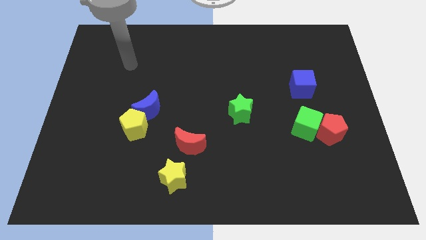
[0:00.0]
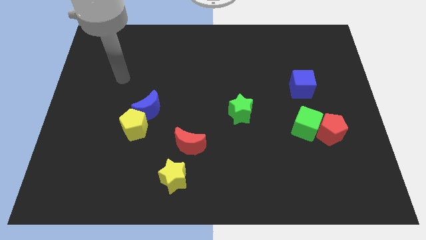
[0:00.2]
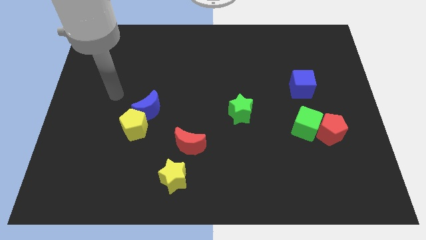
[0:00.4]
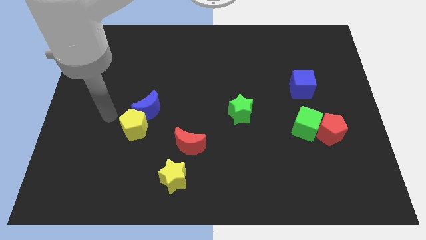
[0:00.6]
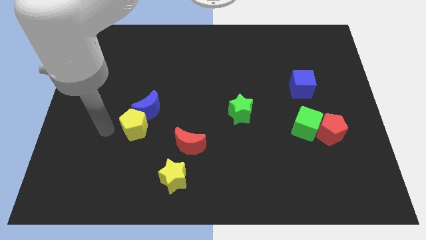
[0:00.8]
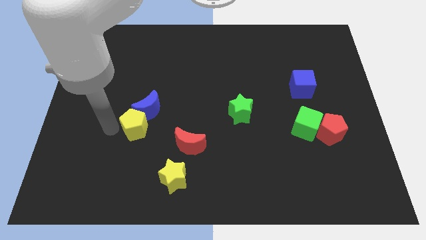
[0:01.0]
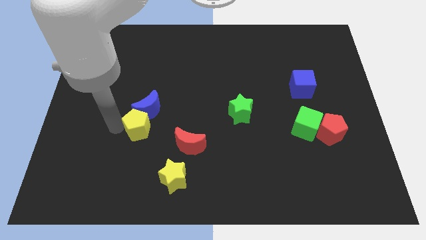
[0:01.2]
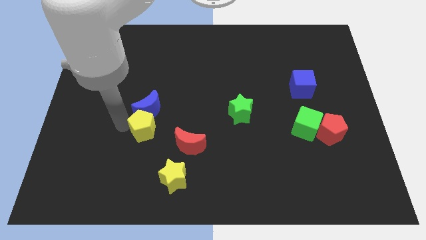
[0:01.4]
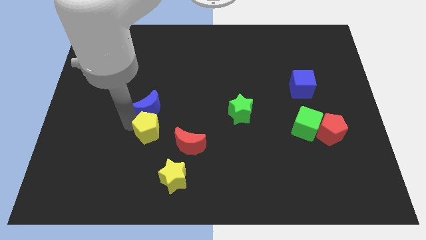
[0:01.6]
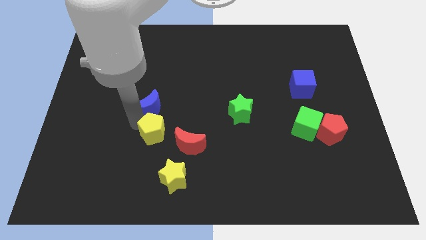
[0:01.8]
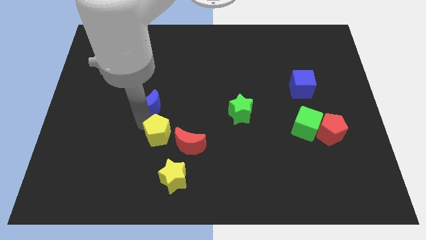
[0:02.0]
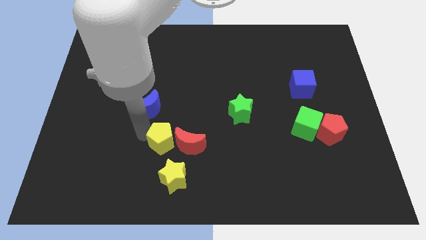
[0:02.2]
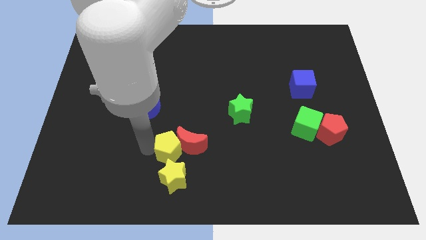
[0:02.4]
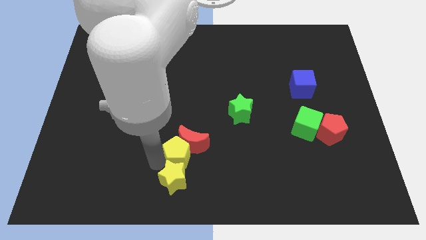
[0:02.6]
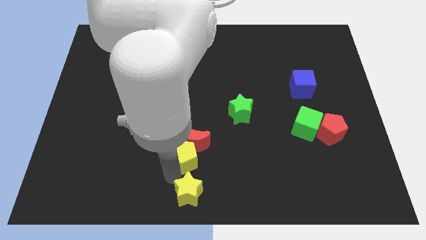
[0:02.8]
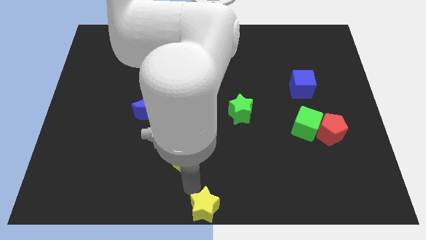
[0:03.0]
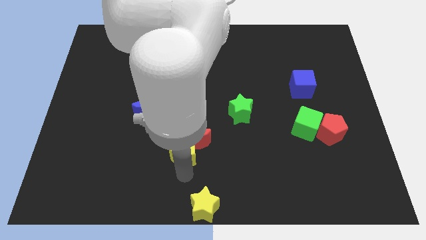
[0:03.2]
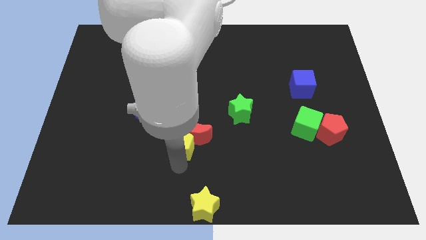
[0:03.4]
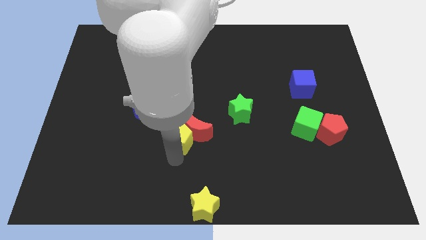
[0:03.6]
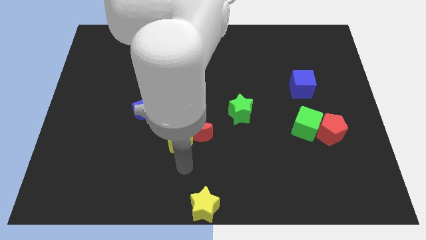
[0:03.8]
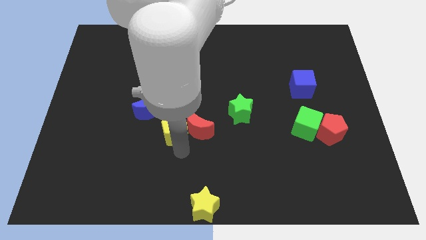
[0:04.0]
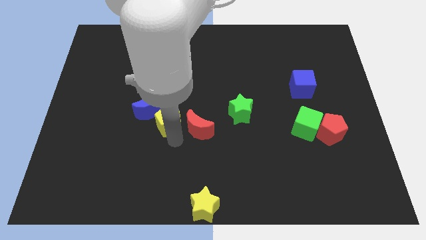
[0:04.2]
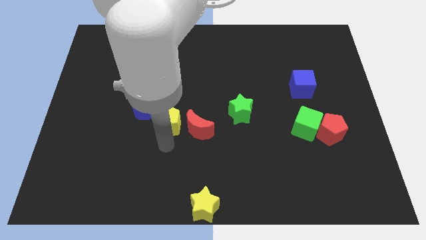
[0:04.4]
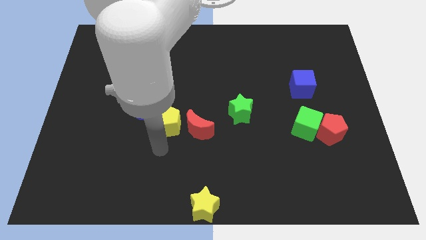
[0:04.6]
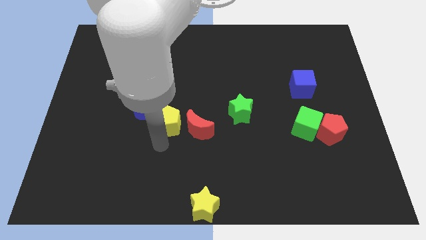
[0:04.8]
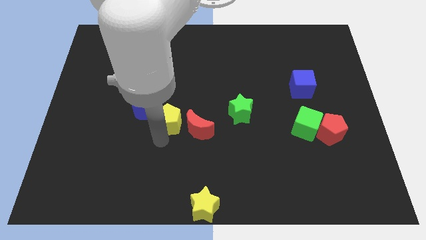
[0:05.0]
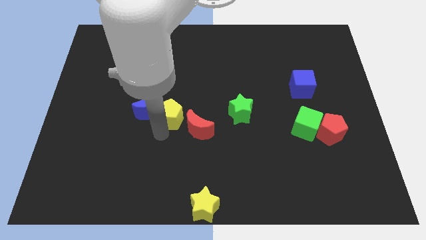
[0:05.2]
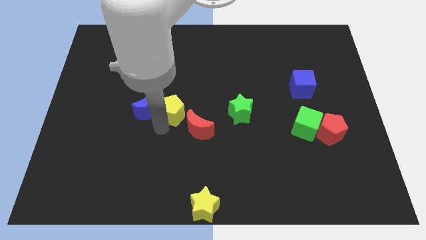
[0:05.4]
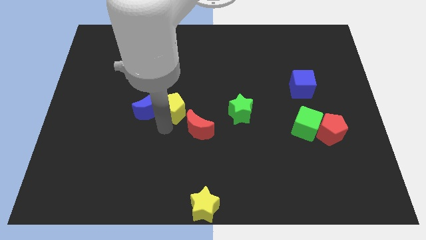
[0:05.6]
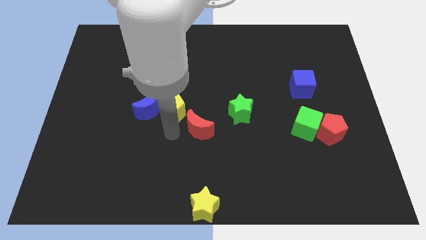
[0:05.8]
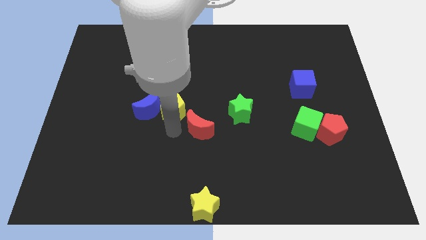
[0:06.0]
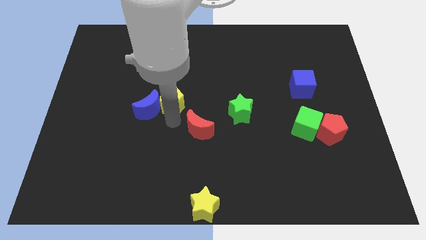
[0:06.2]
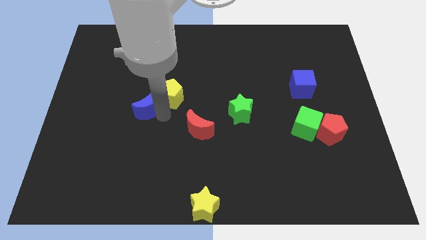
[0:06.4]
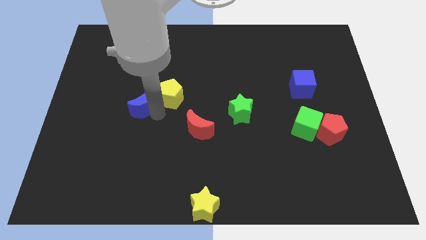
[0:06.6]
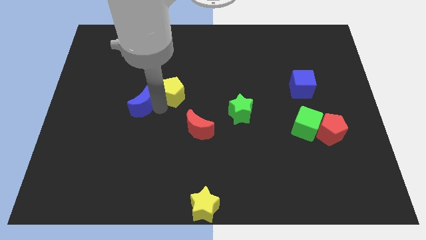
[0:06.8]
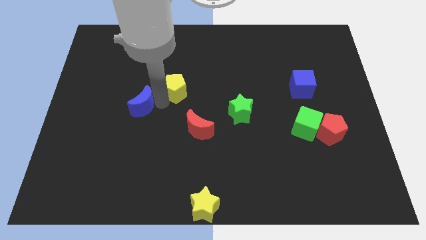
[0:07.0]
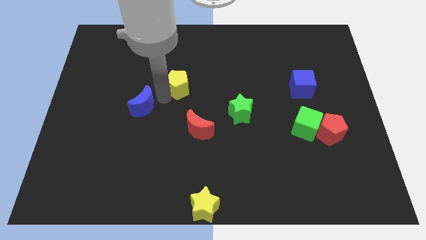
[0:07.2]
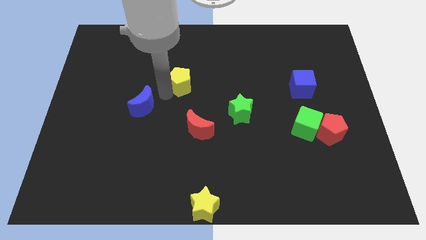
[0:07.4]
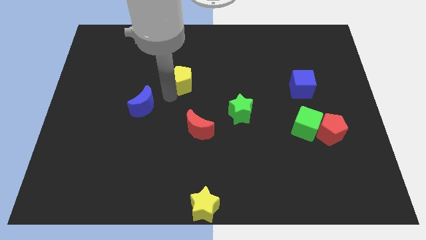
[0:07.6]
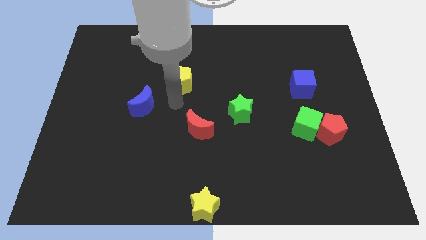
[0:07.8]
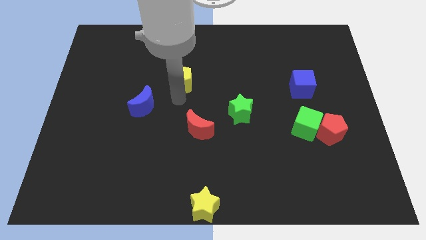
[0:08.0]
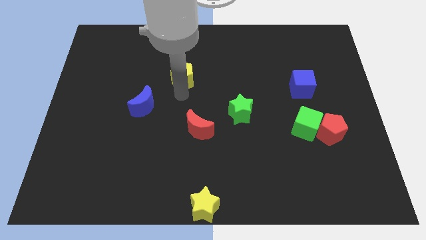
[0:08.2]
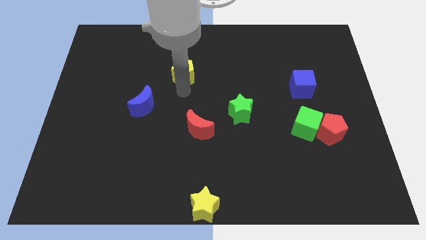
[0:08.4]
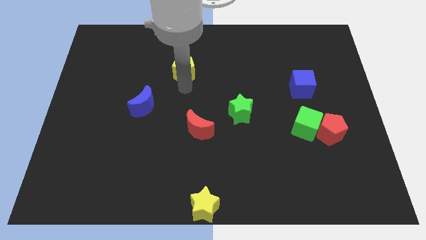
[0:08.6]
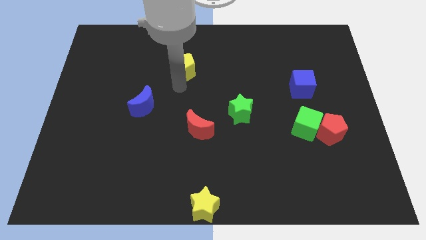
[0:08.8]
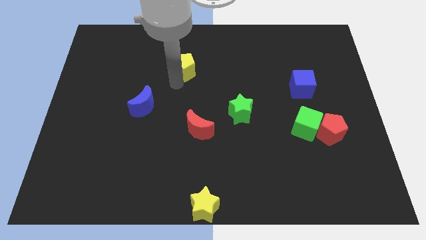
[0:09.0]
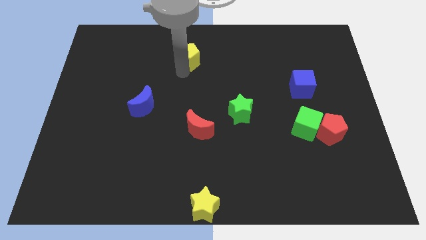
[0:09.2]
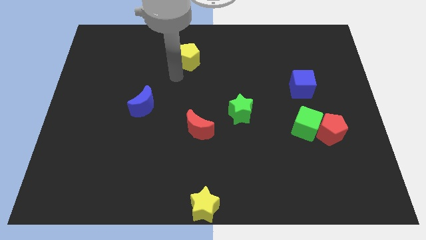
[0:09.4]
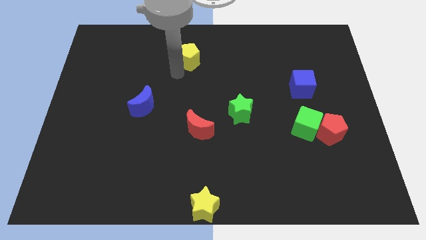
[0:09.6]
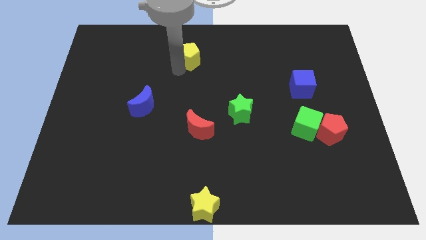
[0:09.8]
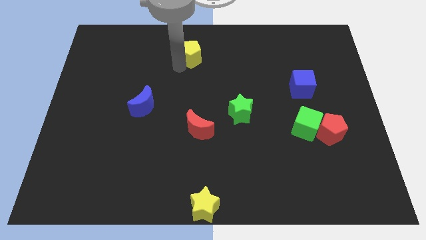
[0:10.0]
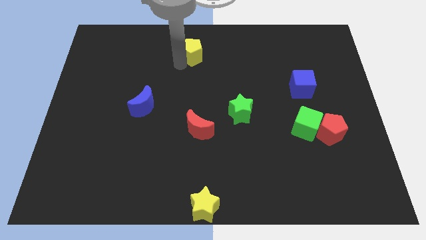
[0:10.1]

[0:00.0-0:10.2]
move the yellow pentagon to the top

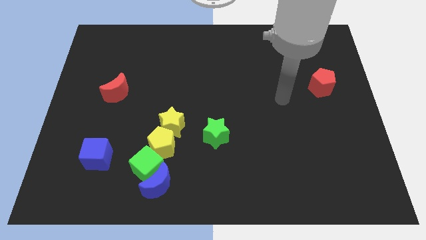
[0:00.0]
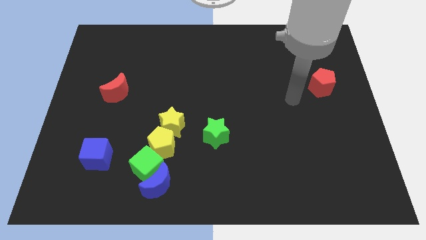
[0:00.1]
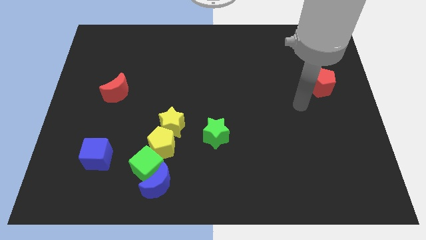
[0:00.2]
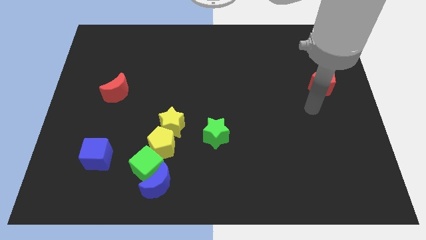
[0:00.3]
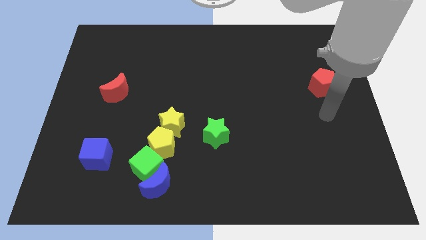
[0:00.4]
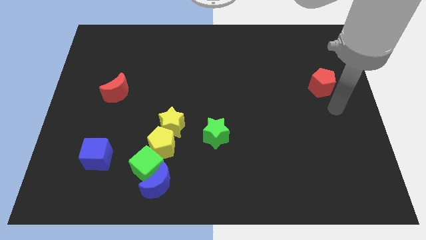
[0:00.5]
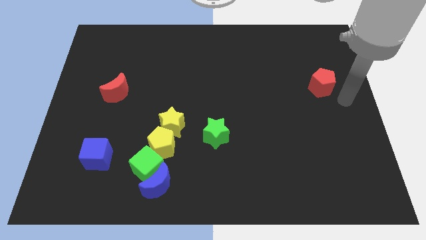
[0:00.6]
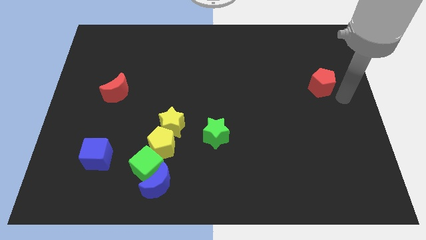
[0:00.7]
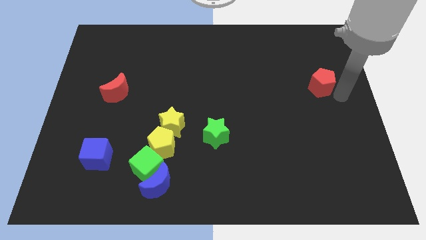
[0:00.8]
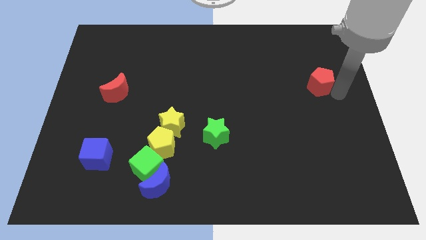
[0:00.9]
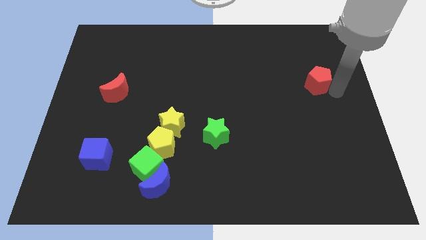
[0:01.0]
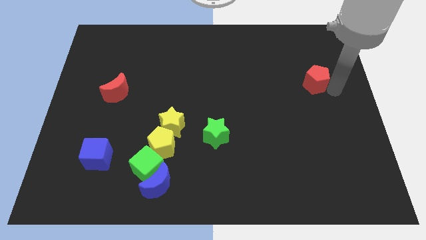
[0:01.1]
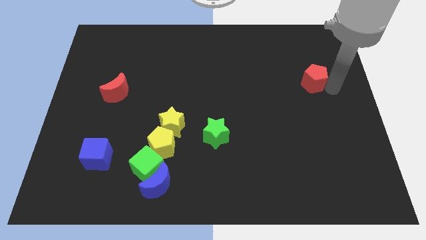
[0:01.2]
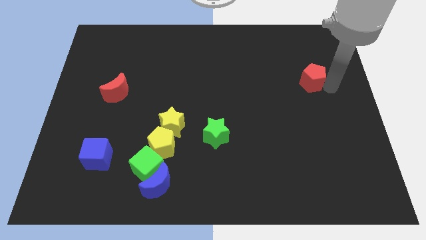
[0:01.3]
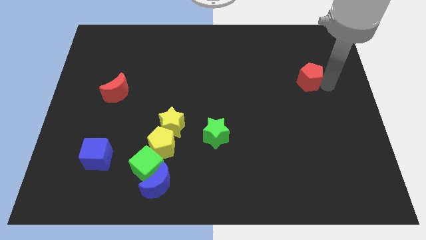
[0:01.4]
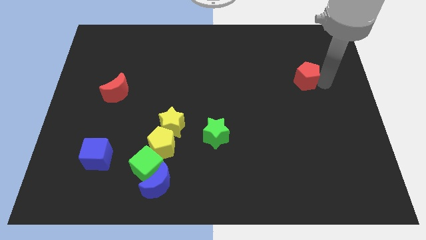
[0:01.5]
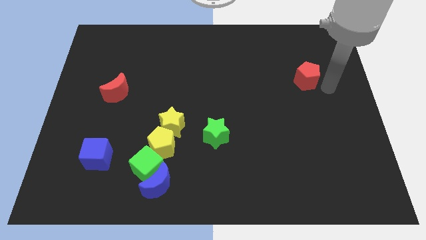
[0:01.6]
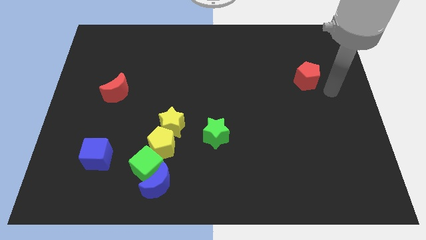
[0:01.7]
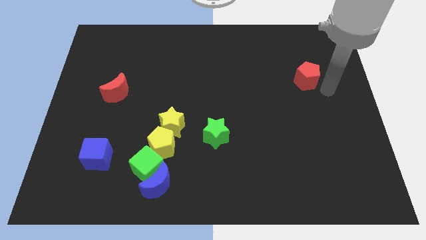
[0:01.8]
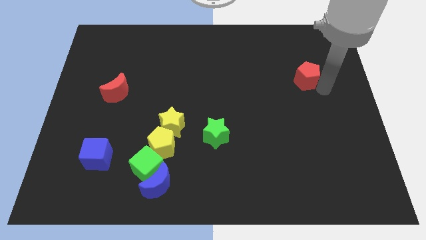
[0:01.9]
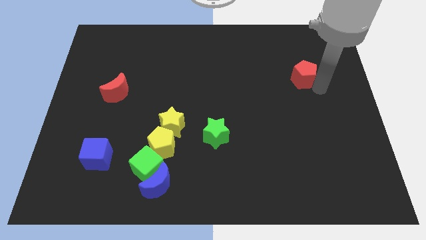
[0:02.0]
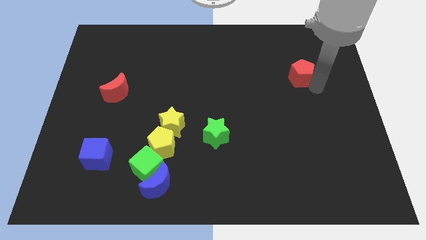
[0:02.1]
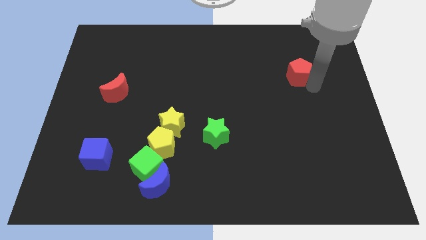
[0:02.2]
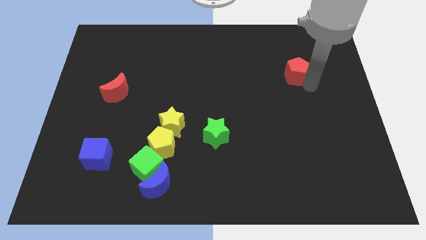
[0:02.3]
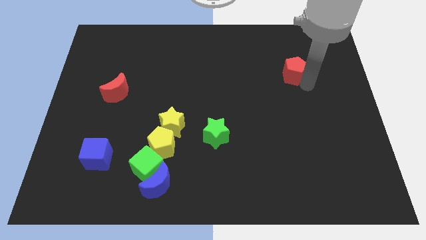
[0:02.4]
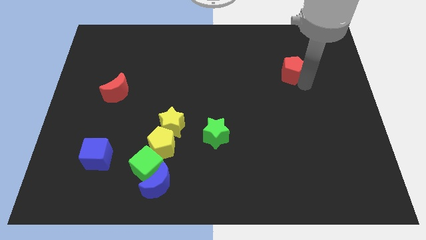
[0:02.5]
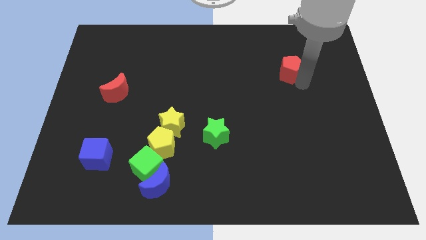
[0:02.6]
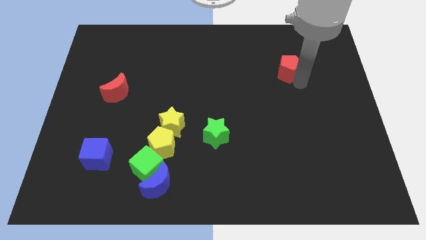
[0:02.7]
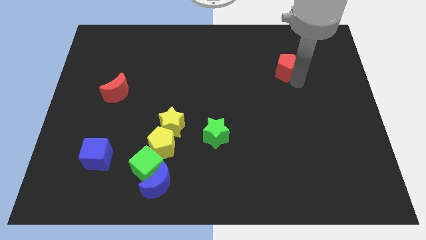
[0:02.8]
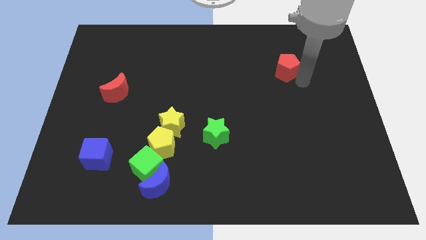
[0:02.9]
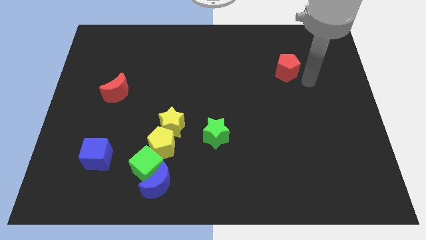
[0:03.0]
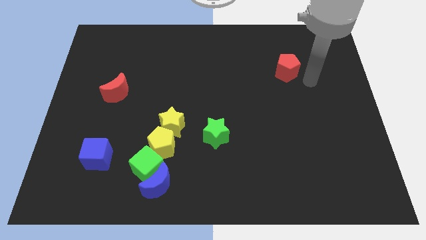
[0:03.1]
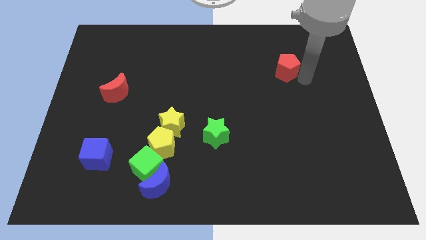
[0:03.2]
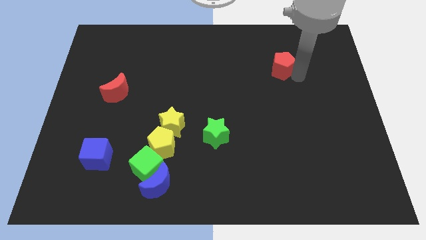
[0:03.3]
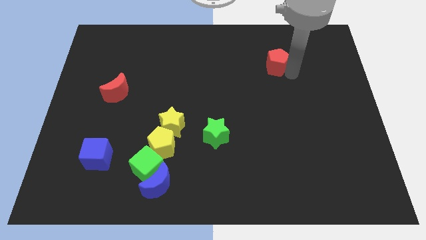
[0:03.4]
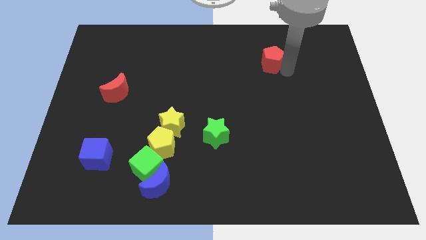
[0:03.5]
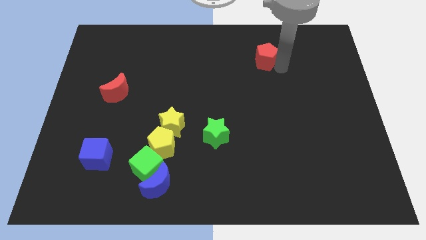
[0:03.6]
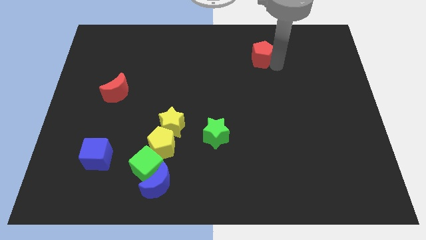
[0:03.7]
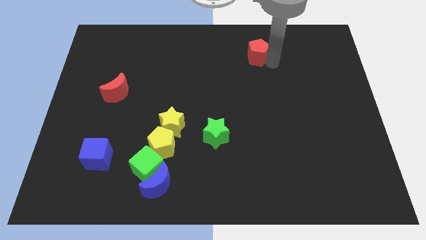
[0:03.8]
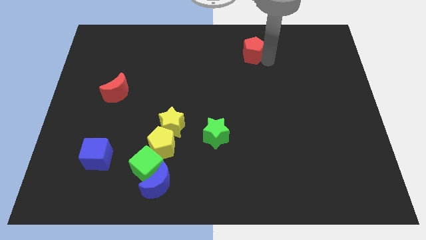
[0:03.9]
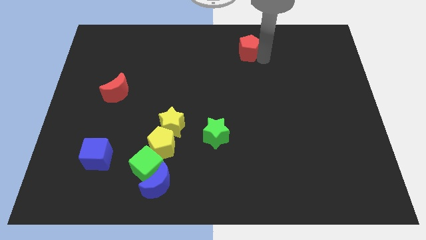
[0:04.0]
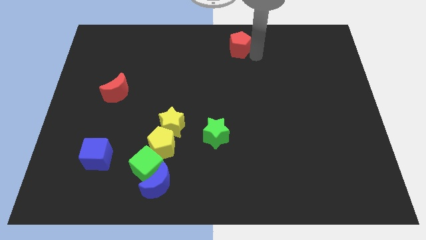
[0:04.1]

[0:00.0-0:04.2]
slide the red pentagon to the top side
